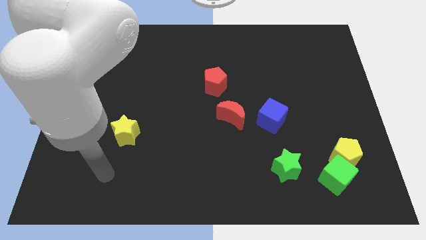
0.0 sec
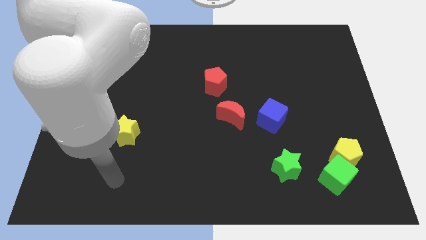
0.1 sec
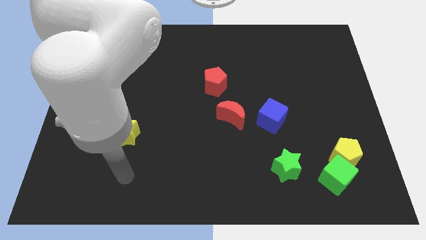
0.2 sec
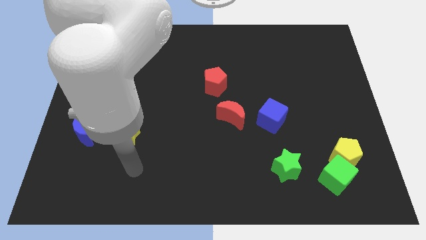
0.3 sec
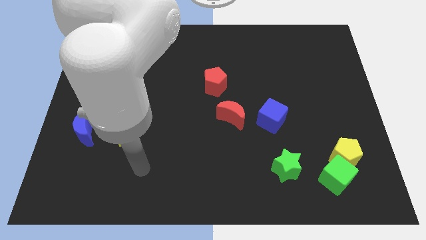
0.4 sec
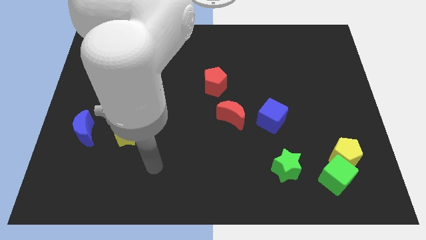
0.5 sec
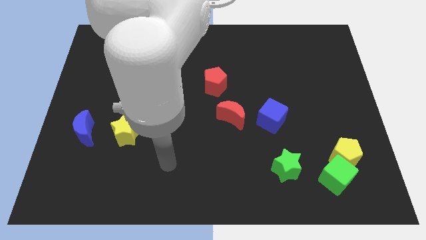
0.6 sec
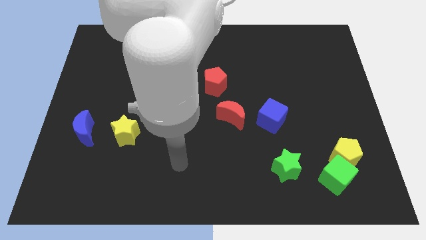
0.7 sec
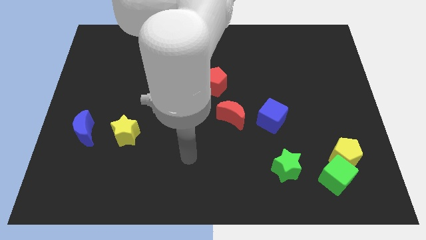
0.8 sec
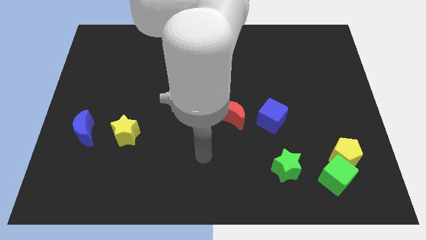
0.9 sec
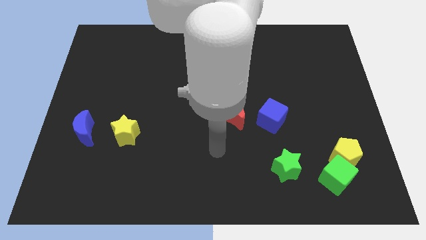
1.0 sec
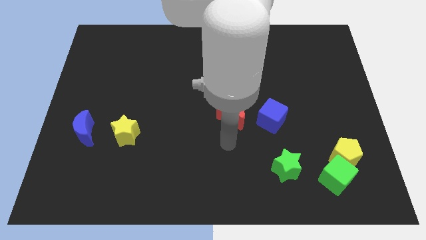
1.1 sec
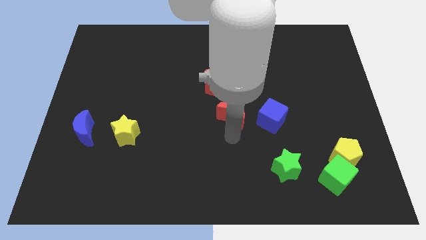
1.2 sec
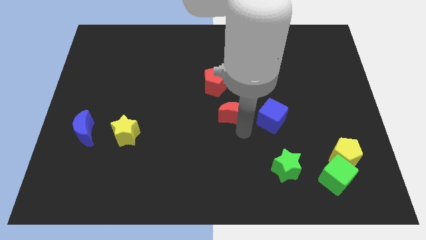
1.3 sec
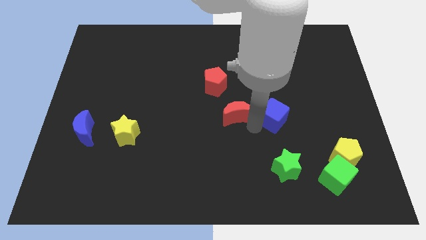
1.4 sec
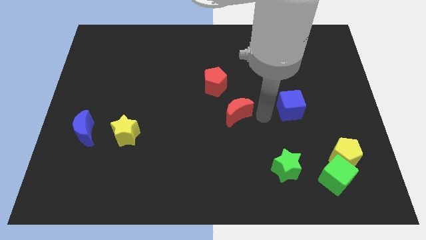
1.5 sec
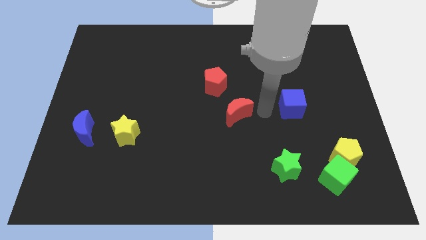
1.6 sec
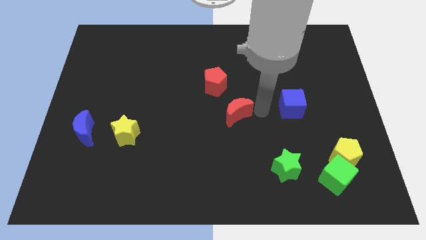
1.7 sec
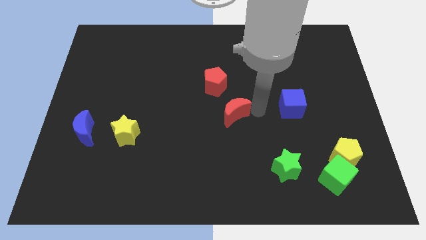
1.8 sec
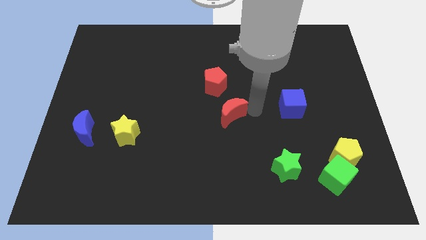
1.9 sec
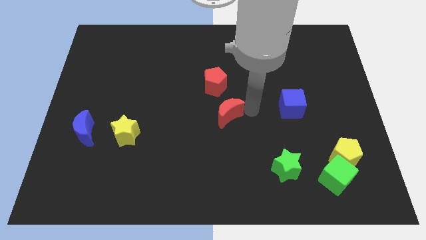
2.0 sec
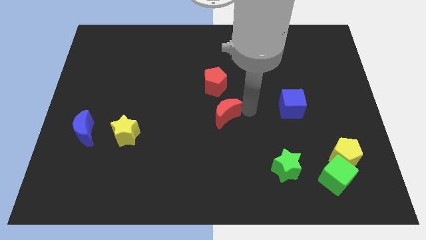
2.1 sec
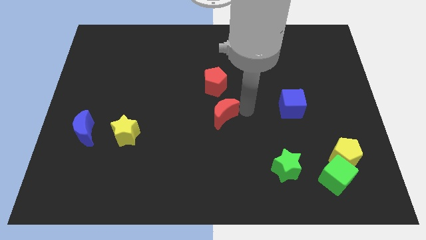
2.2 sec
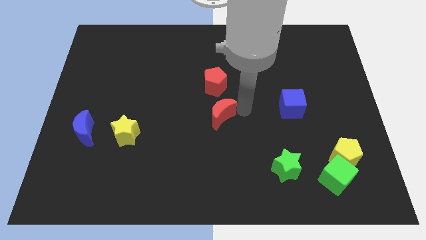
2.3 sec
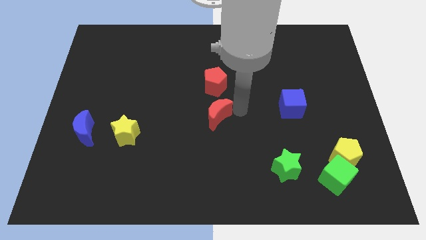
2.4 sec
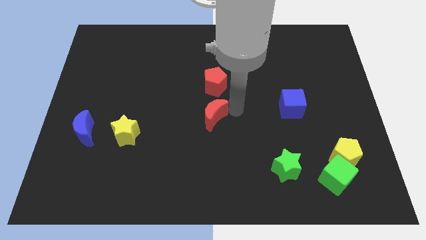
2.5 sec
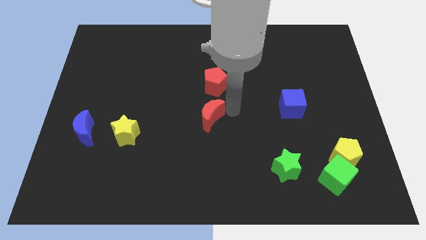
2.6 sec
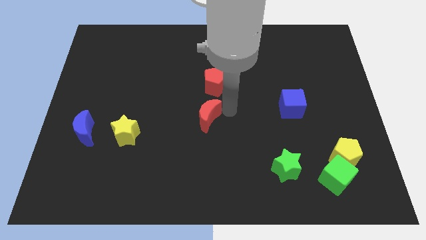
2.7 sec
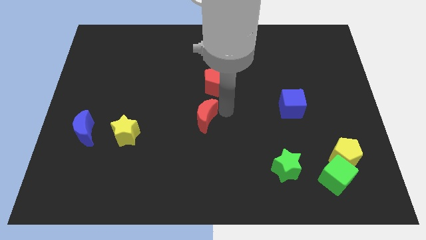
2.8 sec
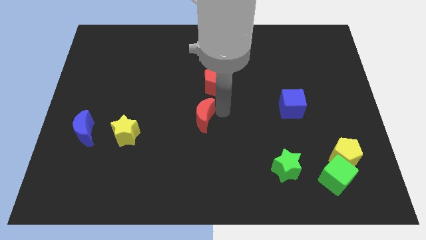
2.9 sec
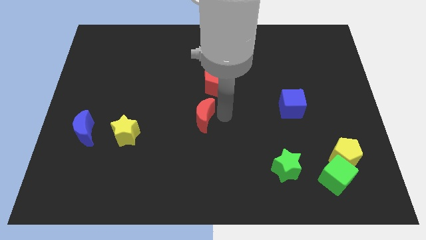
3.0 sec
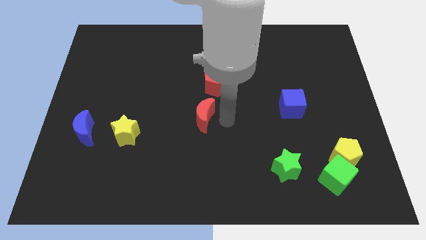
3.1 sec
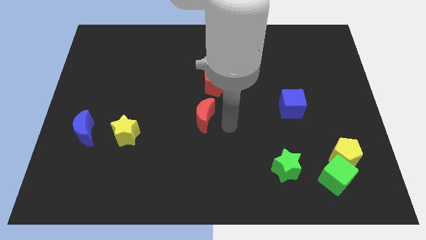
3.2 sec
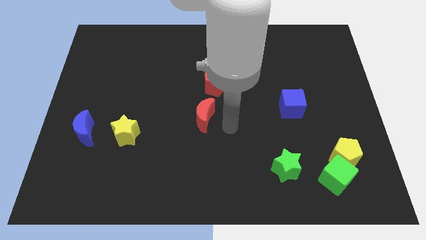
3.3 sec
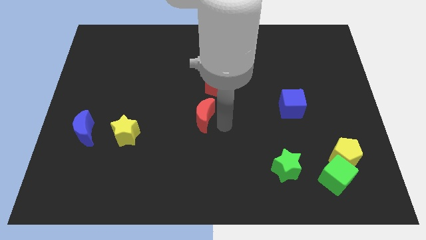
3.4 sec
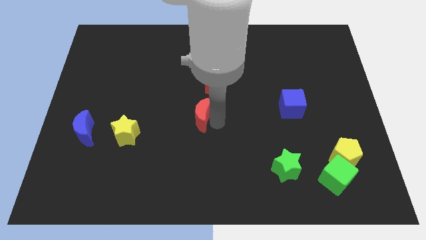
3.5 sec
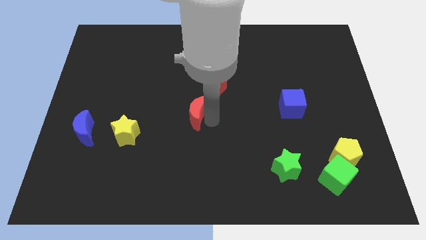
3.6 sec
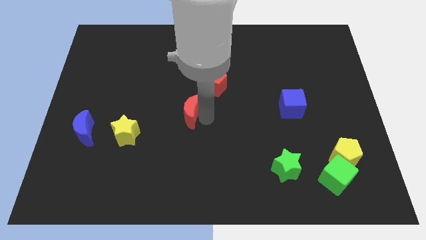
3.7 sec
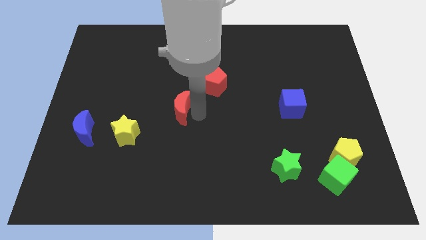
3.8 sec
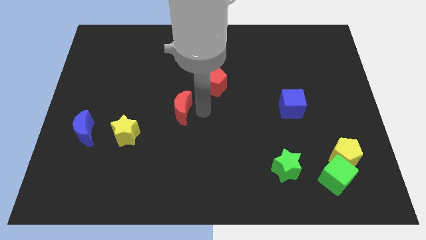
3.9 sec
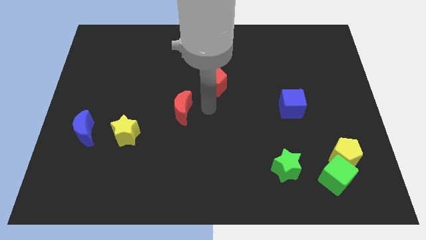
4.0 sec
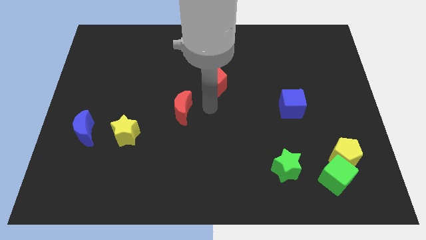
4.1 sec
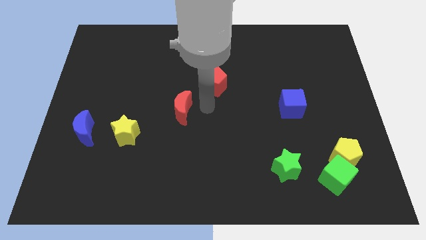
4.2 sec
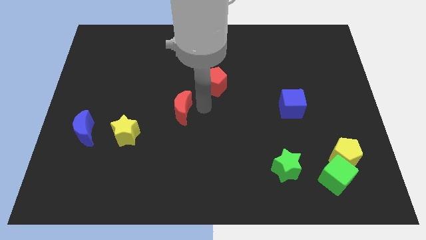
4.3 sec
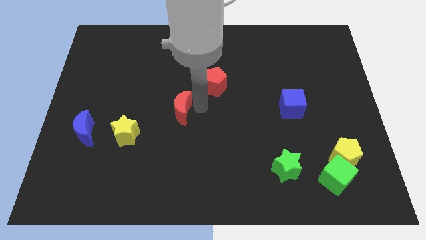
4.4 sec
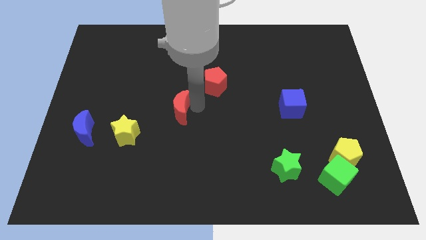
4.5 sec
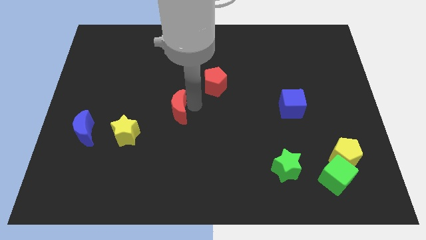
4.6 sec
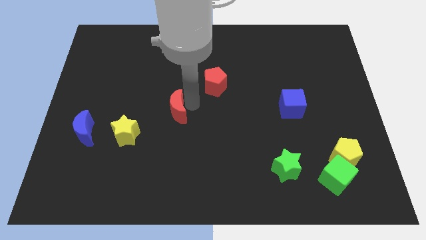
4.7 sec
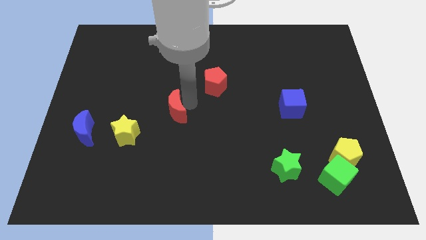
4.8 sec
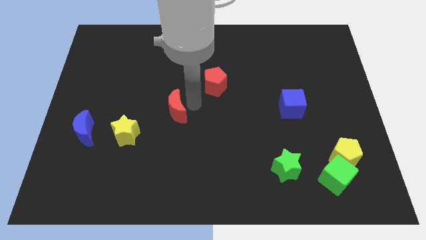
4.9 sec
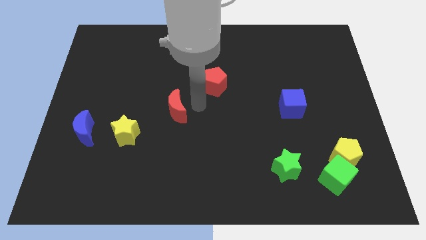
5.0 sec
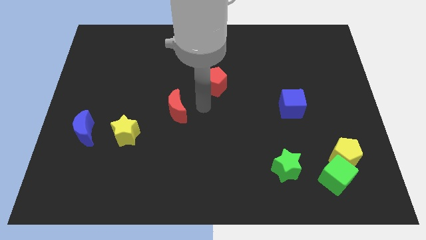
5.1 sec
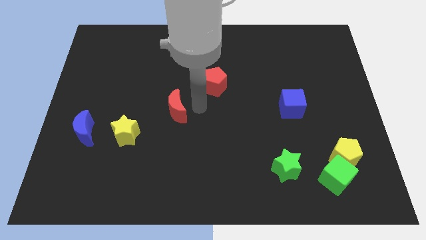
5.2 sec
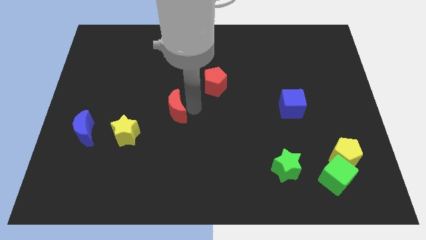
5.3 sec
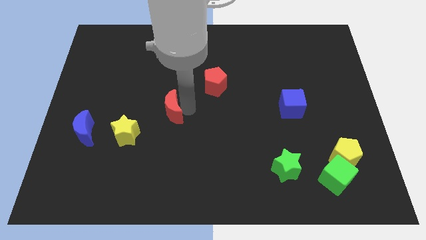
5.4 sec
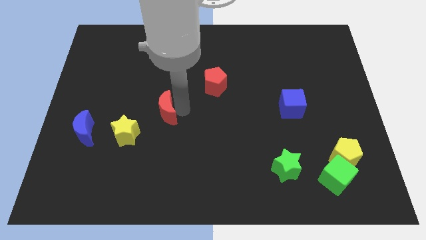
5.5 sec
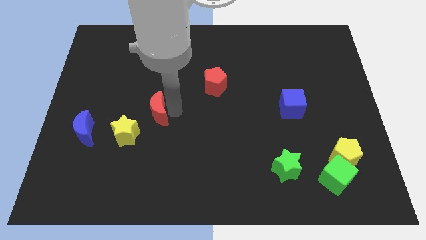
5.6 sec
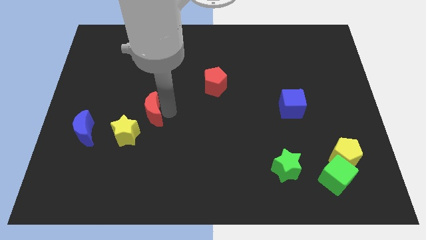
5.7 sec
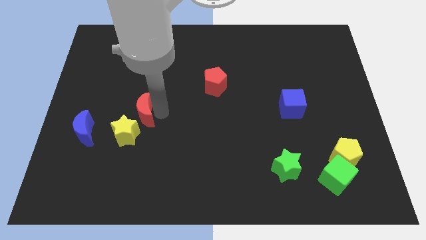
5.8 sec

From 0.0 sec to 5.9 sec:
slide the red moon to the left

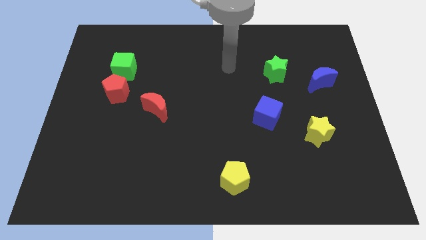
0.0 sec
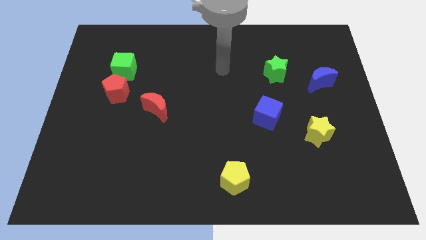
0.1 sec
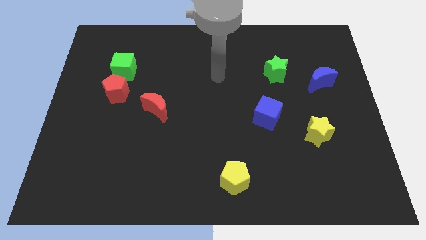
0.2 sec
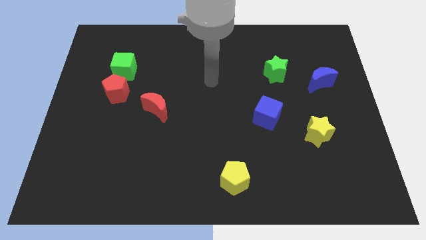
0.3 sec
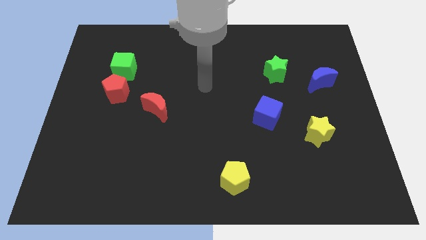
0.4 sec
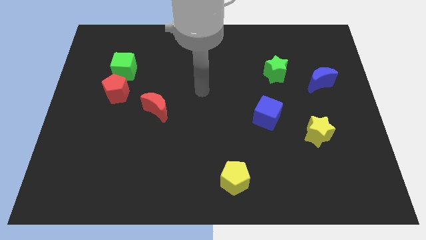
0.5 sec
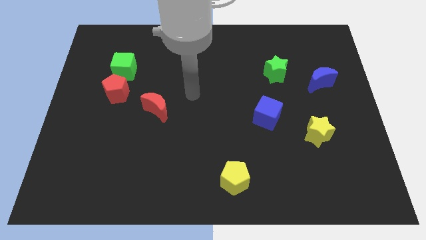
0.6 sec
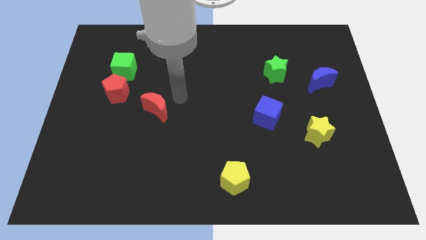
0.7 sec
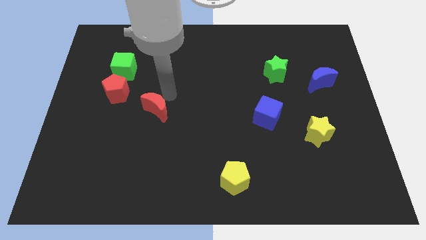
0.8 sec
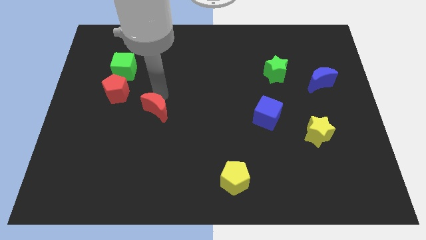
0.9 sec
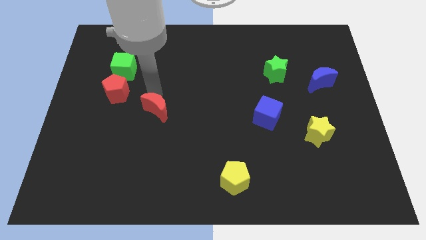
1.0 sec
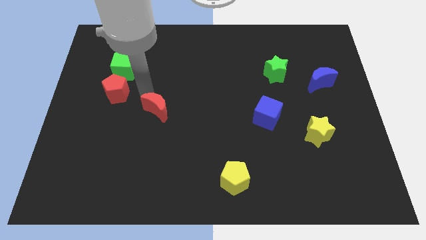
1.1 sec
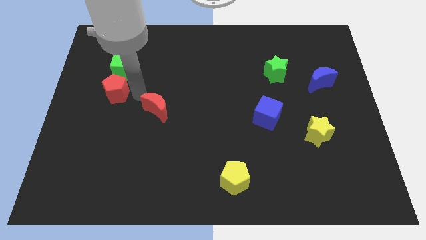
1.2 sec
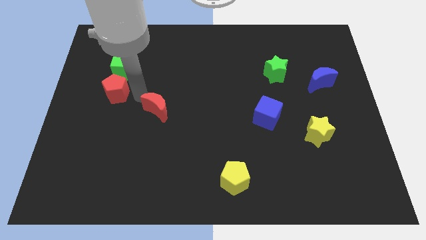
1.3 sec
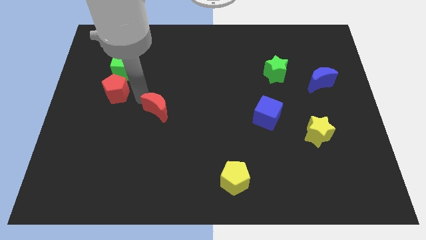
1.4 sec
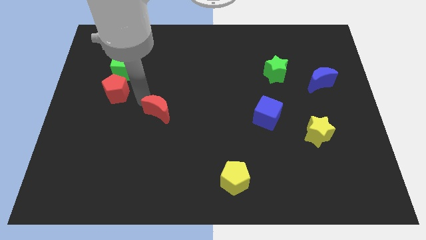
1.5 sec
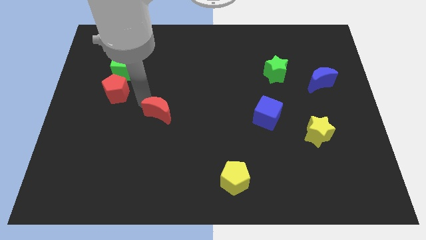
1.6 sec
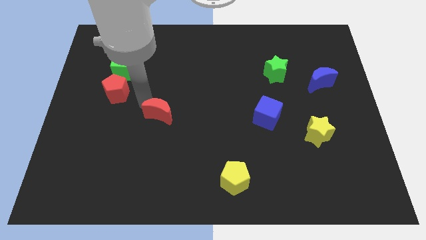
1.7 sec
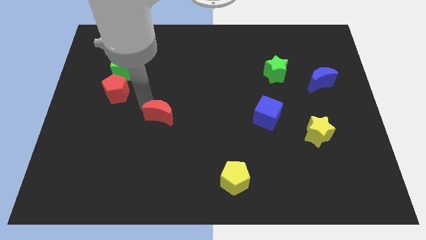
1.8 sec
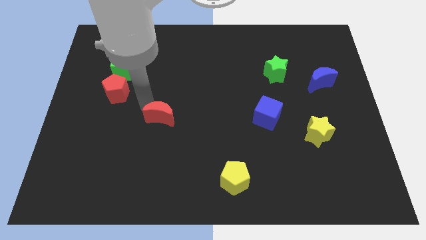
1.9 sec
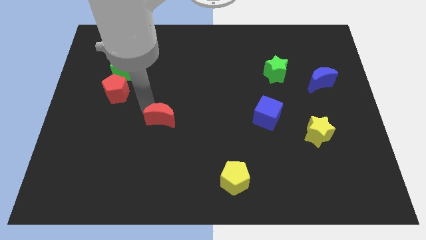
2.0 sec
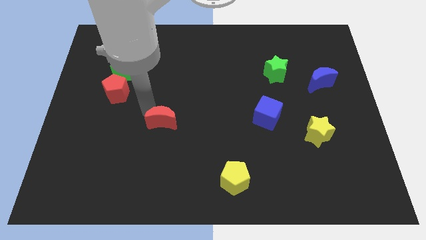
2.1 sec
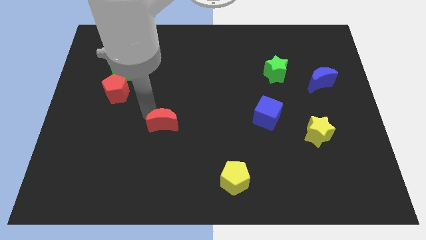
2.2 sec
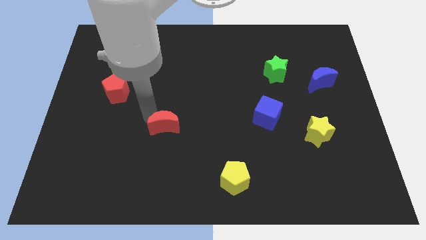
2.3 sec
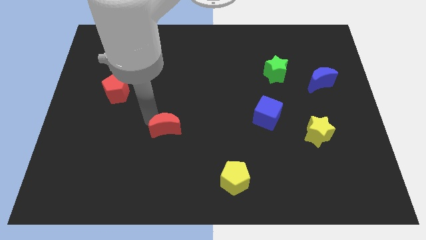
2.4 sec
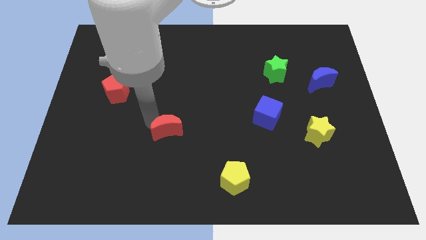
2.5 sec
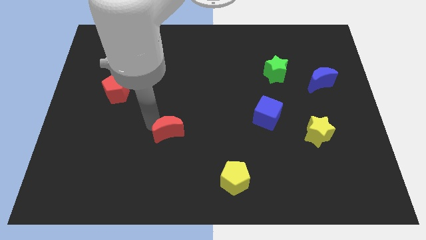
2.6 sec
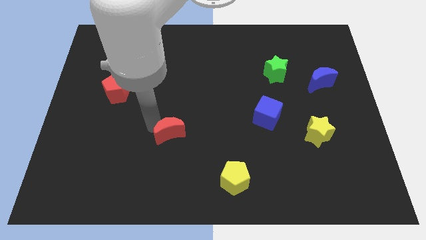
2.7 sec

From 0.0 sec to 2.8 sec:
slightly slide the red moon downwards and then to the right
